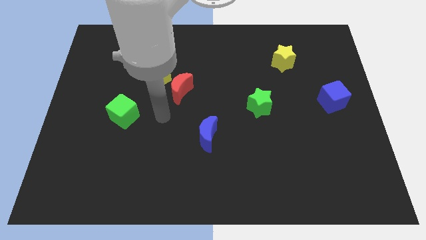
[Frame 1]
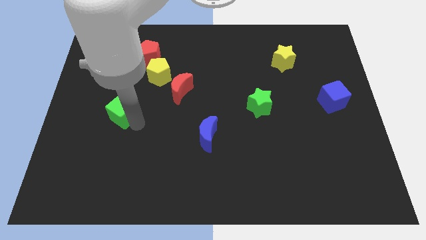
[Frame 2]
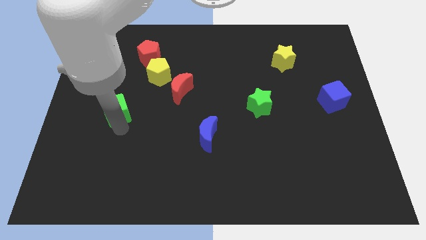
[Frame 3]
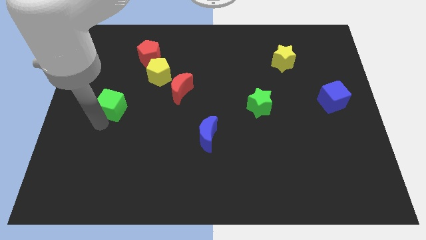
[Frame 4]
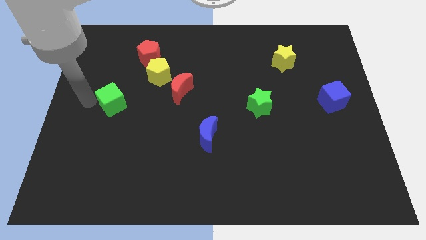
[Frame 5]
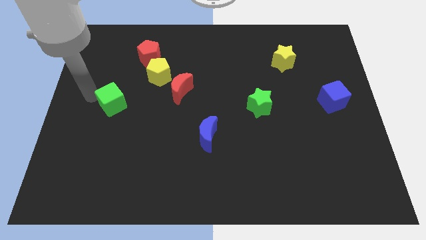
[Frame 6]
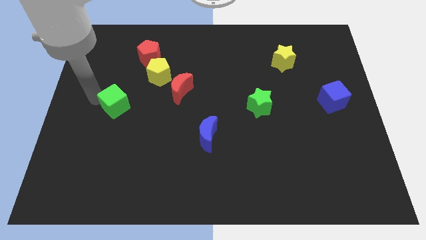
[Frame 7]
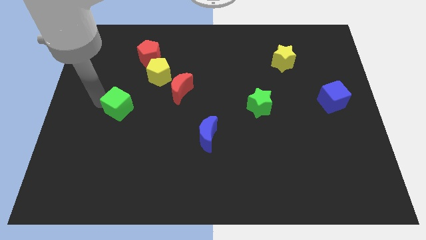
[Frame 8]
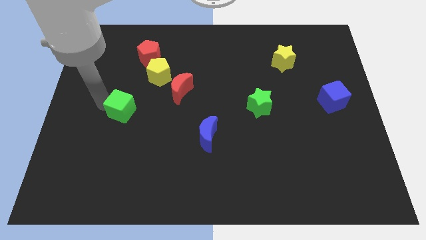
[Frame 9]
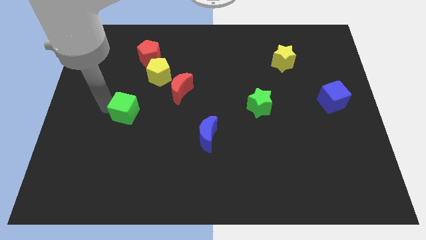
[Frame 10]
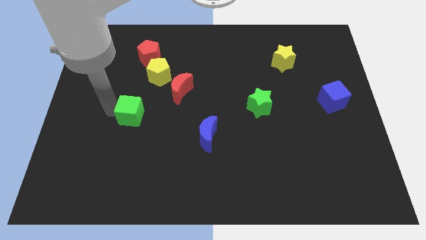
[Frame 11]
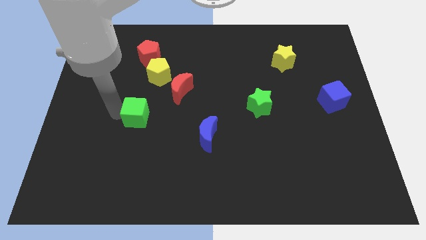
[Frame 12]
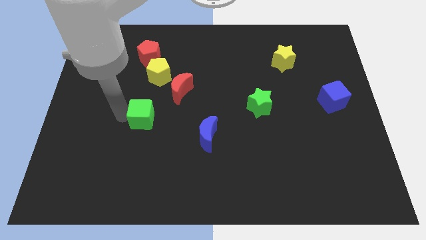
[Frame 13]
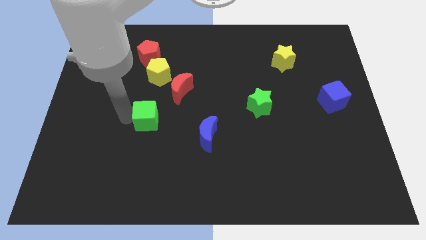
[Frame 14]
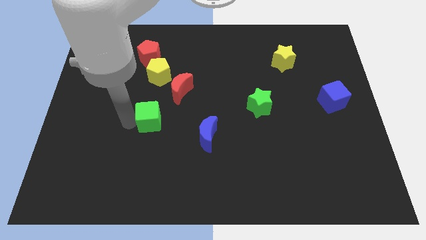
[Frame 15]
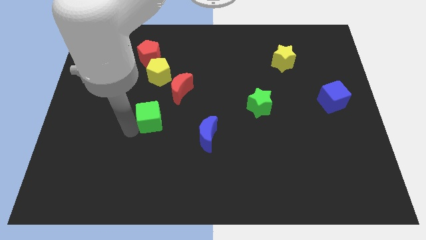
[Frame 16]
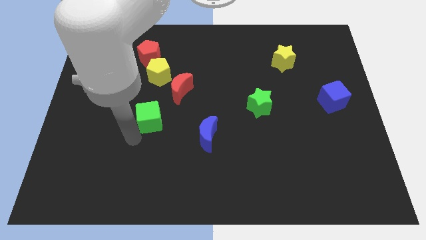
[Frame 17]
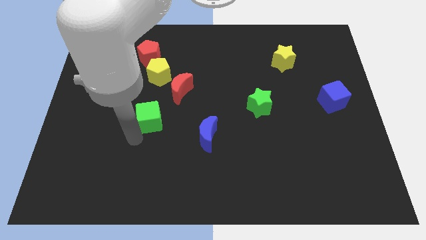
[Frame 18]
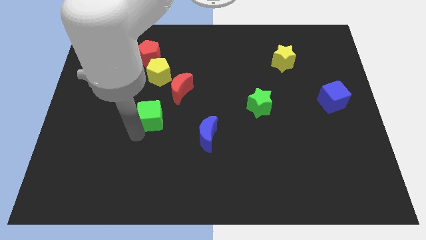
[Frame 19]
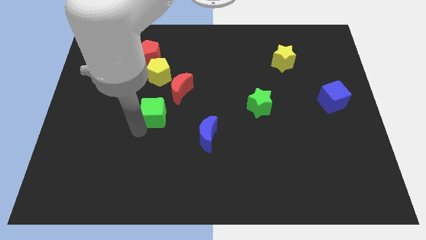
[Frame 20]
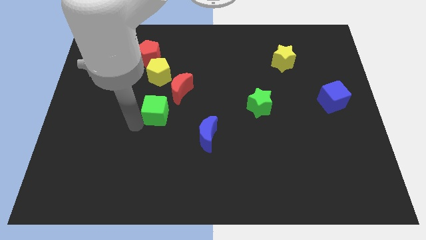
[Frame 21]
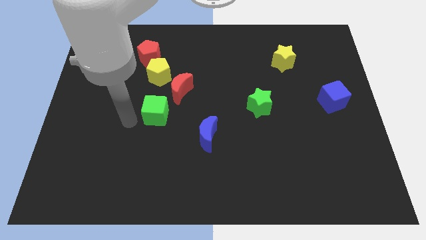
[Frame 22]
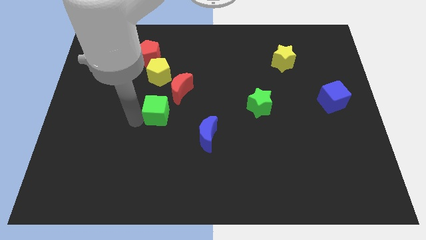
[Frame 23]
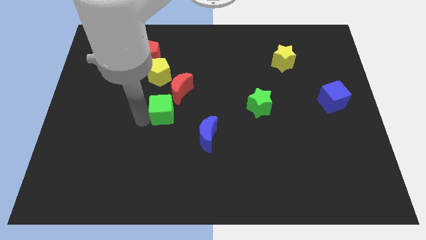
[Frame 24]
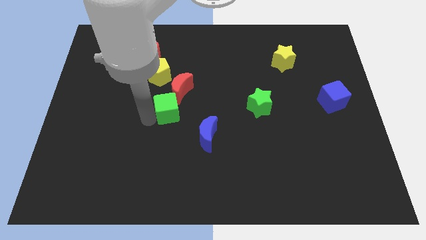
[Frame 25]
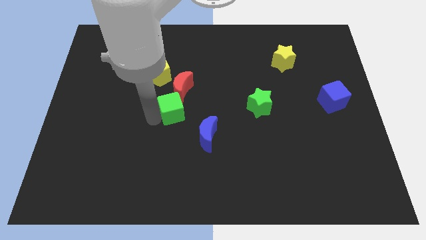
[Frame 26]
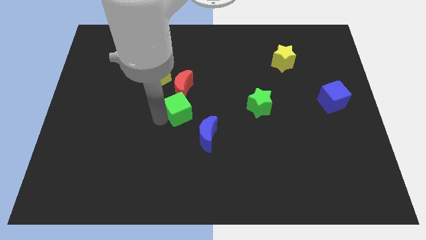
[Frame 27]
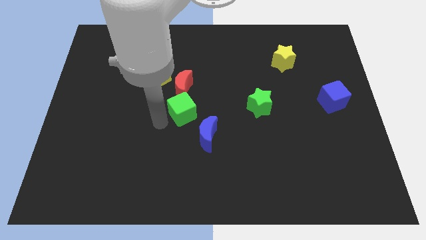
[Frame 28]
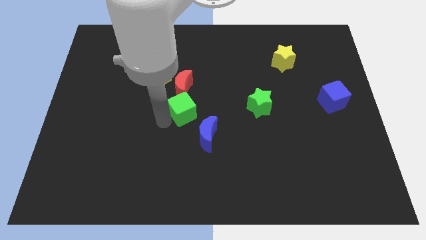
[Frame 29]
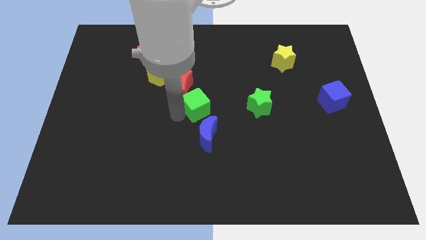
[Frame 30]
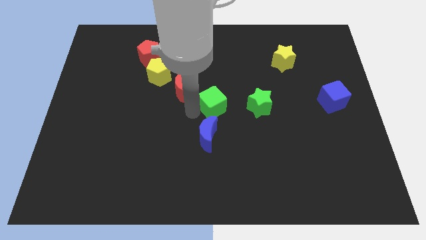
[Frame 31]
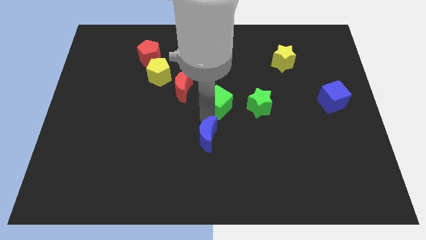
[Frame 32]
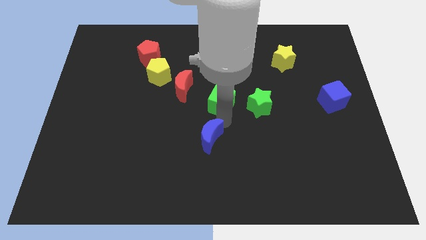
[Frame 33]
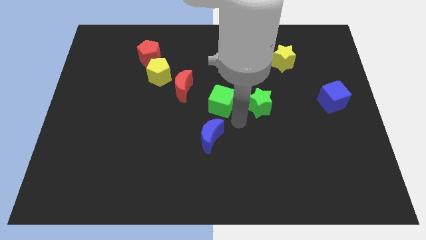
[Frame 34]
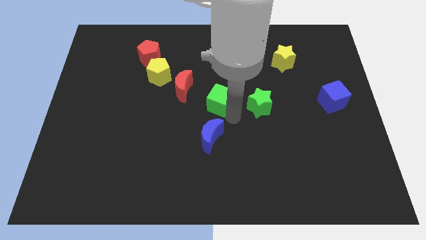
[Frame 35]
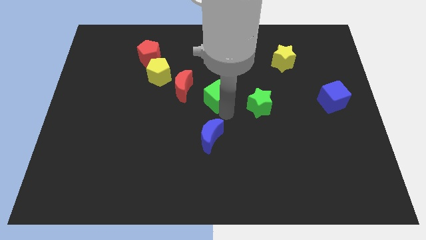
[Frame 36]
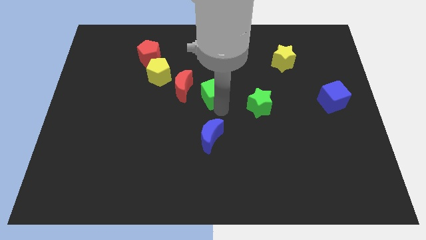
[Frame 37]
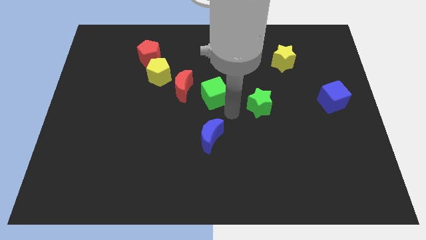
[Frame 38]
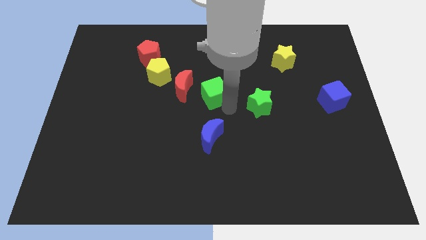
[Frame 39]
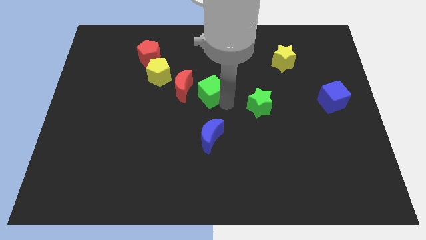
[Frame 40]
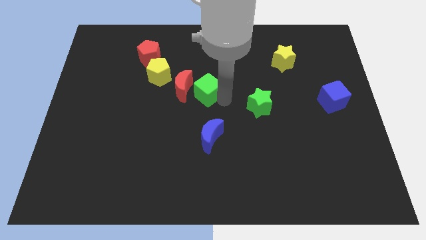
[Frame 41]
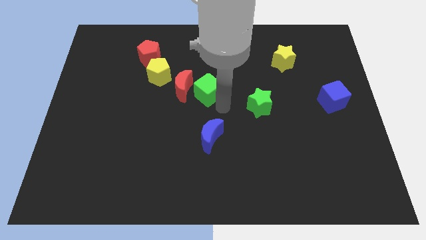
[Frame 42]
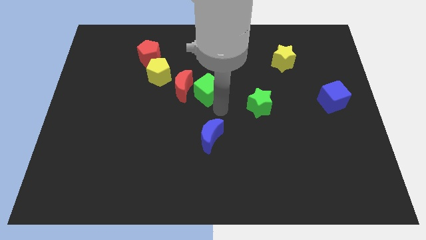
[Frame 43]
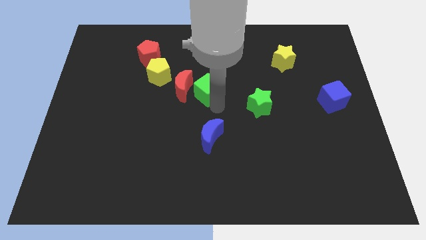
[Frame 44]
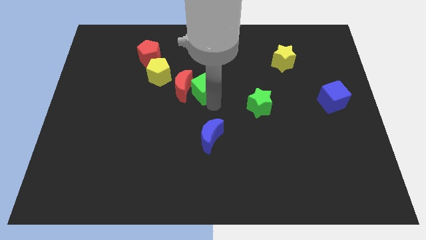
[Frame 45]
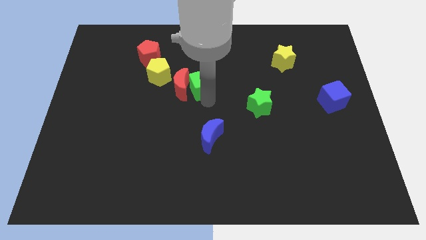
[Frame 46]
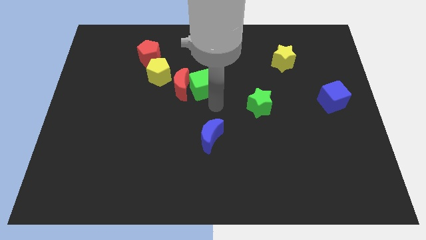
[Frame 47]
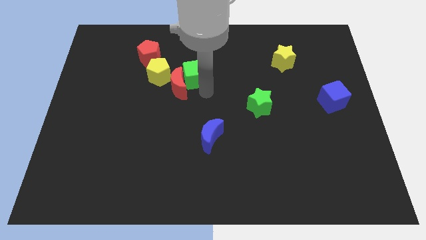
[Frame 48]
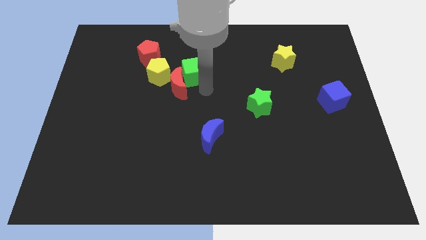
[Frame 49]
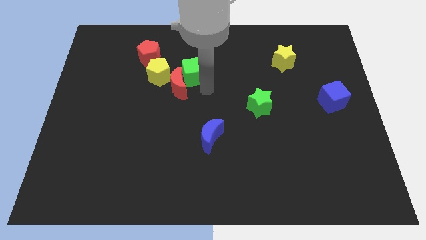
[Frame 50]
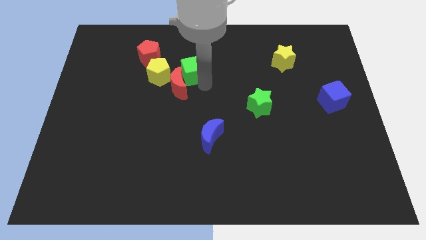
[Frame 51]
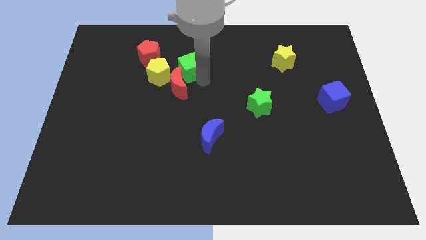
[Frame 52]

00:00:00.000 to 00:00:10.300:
put the green cube to the top right of the yellow pentagon

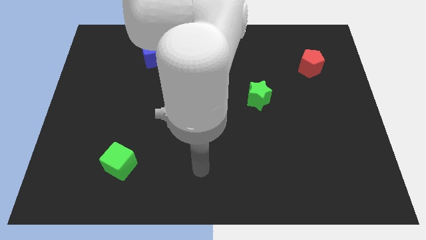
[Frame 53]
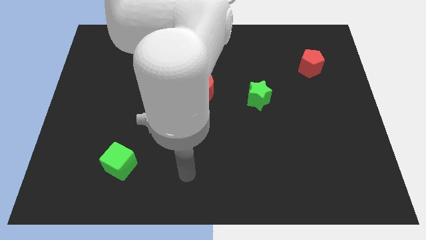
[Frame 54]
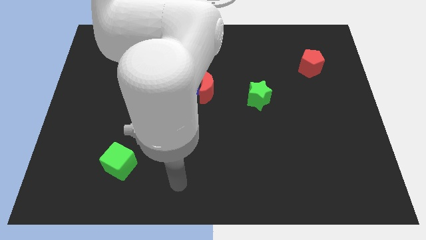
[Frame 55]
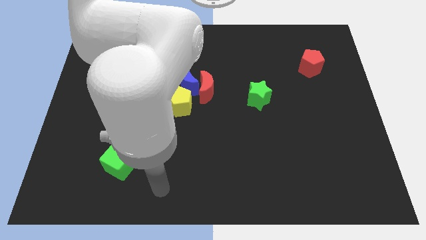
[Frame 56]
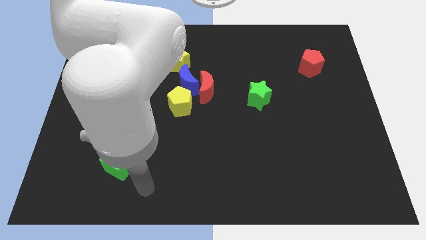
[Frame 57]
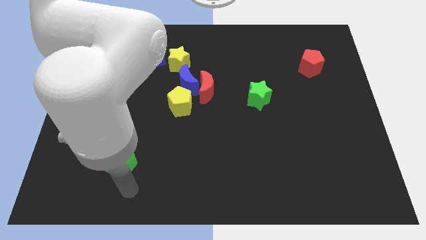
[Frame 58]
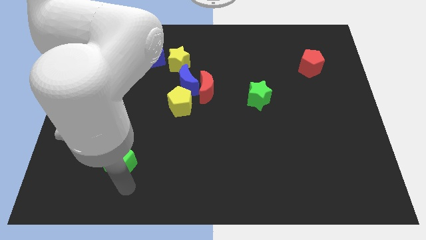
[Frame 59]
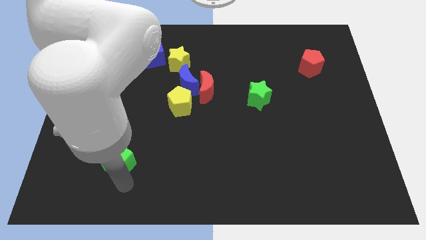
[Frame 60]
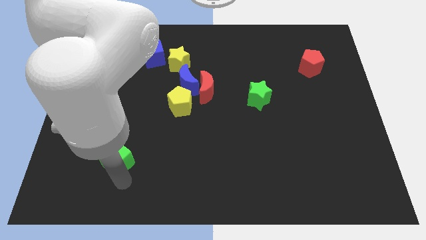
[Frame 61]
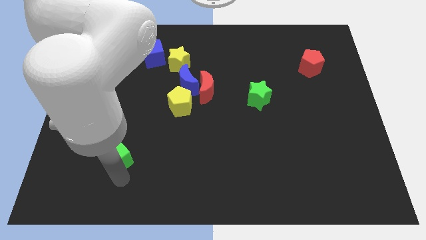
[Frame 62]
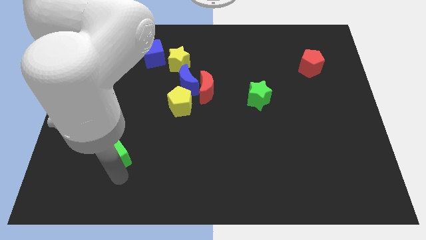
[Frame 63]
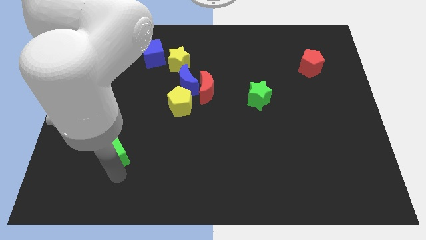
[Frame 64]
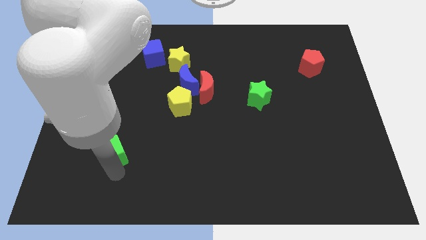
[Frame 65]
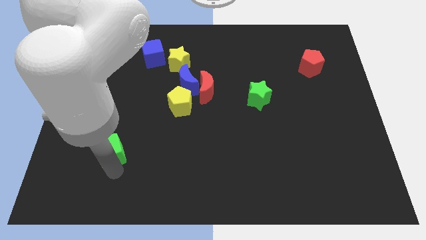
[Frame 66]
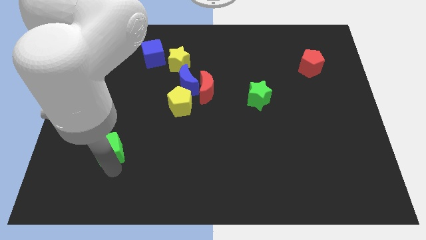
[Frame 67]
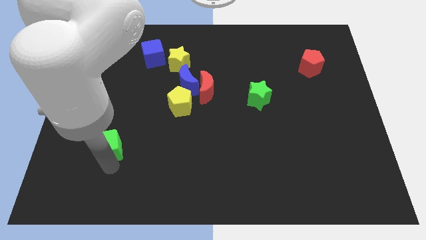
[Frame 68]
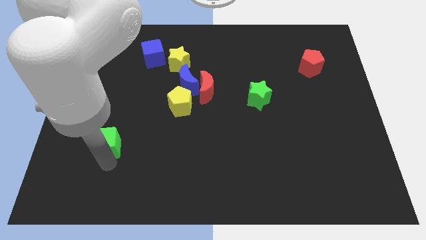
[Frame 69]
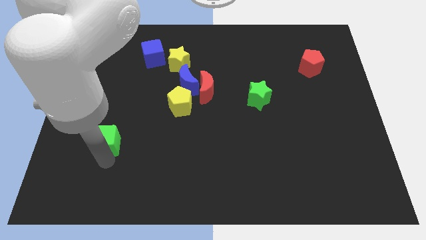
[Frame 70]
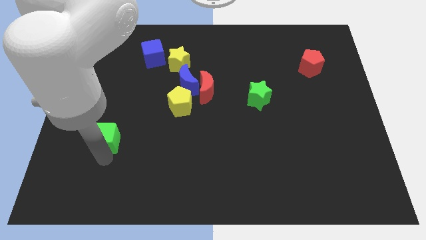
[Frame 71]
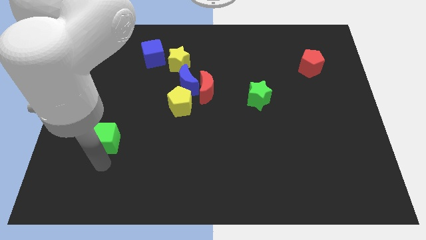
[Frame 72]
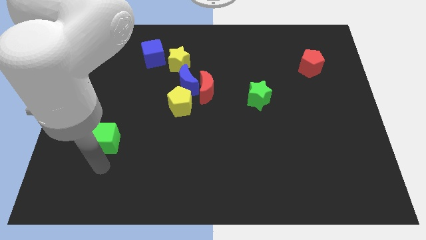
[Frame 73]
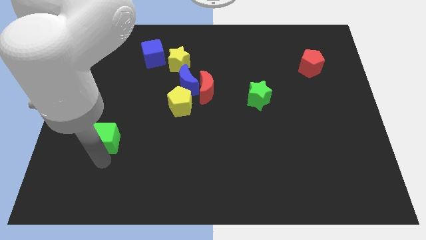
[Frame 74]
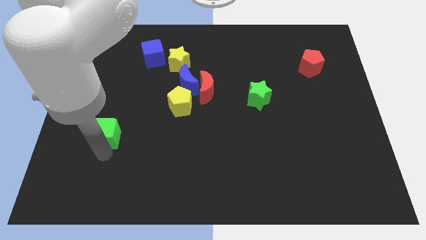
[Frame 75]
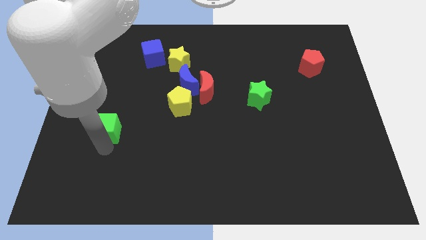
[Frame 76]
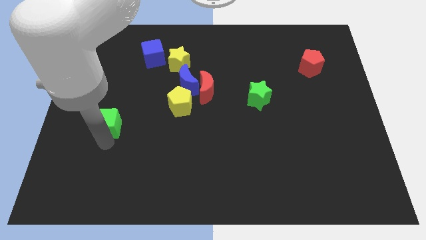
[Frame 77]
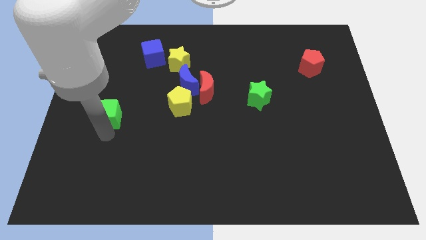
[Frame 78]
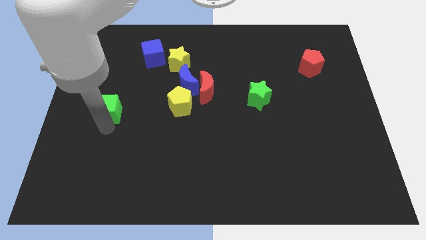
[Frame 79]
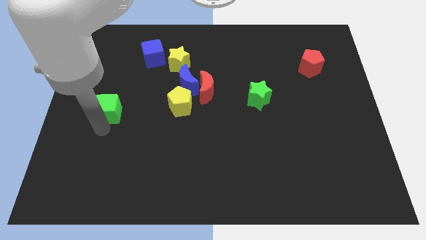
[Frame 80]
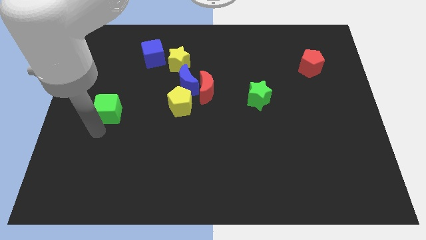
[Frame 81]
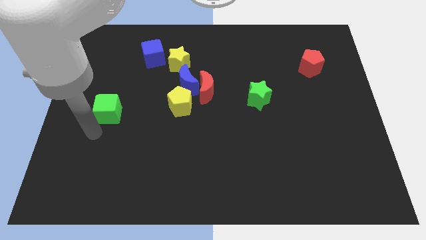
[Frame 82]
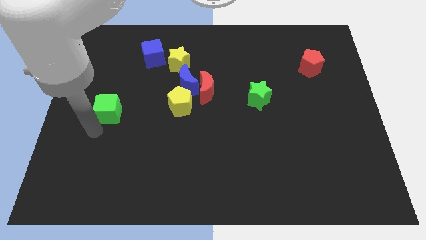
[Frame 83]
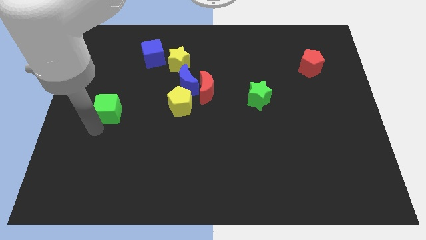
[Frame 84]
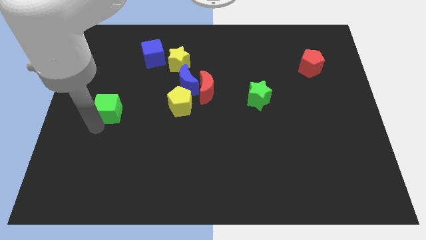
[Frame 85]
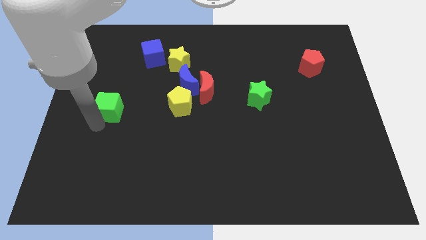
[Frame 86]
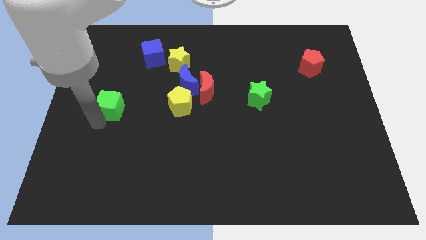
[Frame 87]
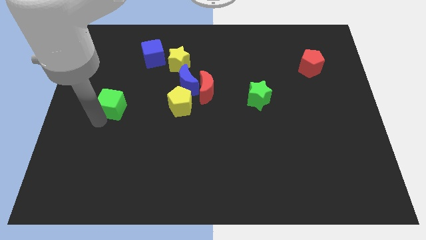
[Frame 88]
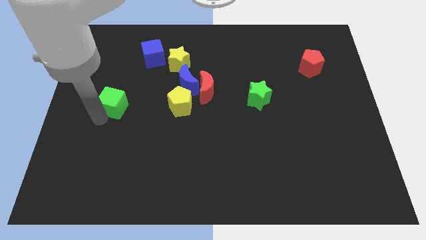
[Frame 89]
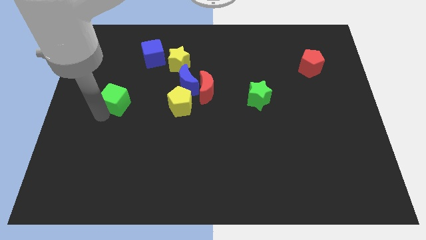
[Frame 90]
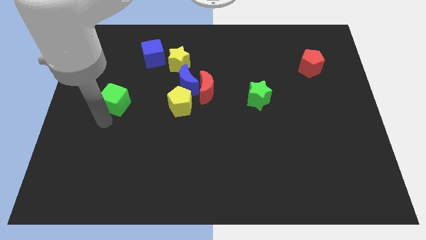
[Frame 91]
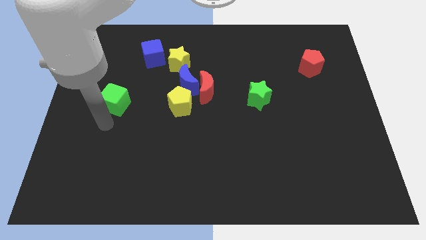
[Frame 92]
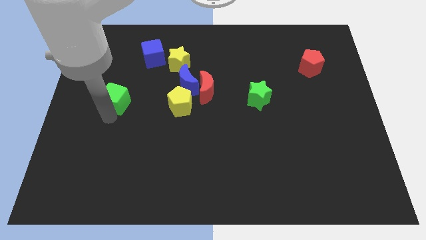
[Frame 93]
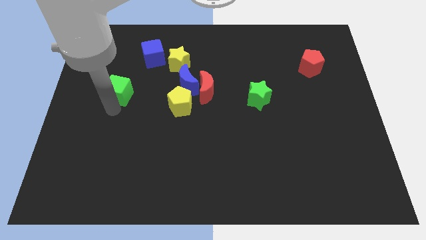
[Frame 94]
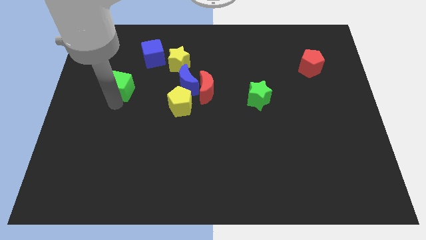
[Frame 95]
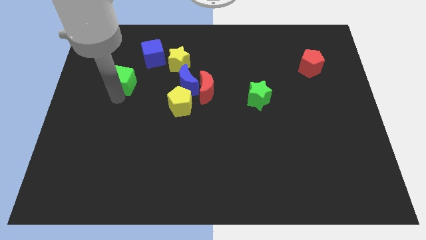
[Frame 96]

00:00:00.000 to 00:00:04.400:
put the green cube diagonally down and to the left of the blue cube
